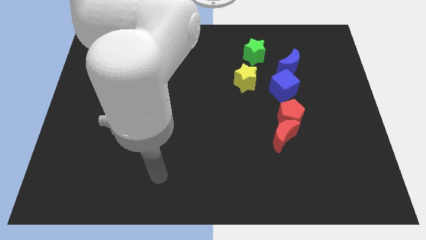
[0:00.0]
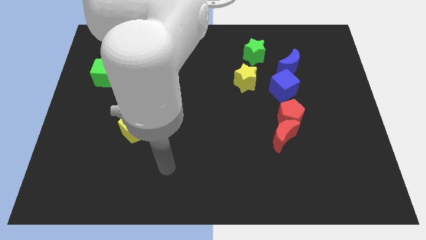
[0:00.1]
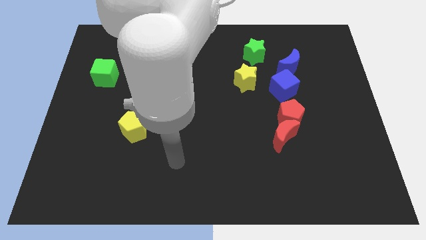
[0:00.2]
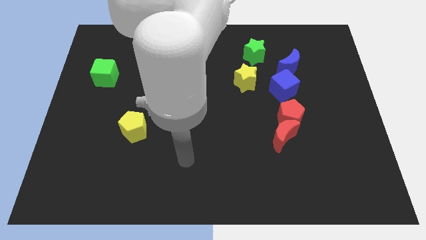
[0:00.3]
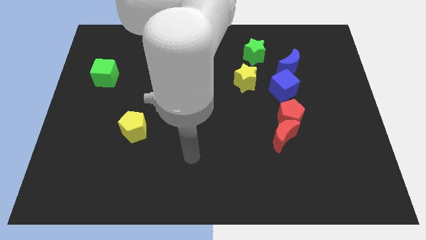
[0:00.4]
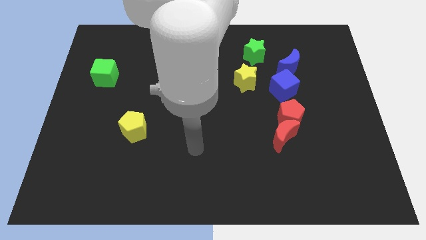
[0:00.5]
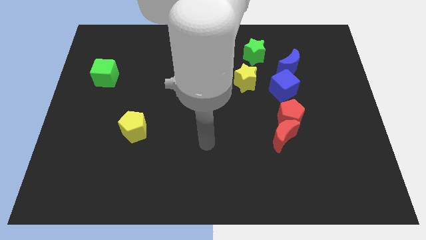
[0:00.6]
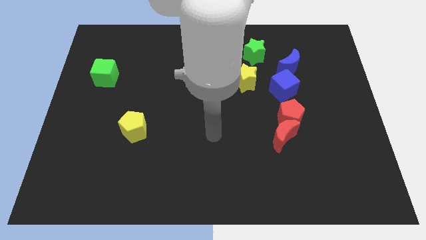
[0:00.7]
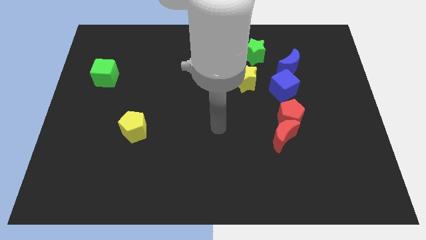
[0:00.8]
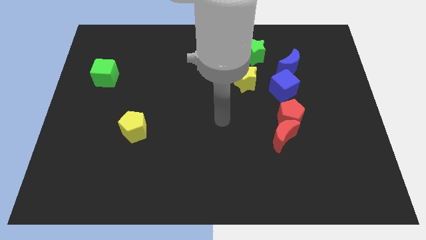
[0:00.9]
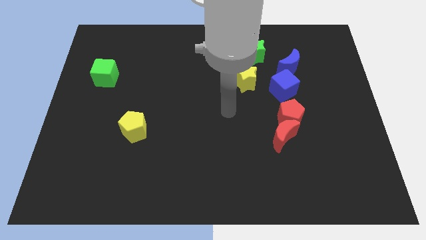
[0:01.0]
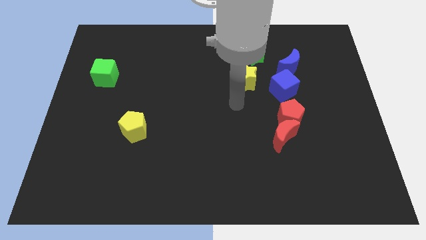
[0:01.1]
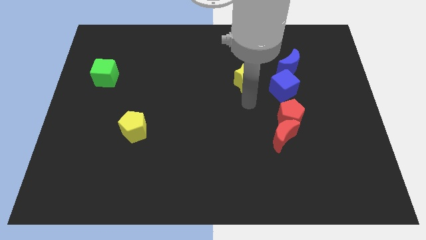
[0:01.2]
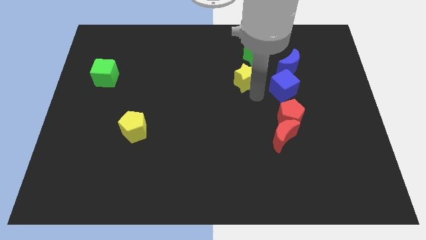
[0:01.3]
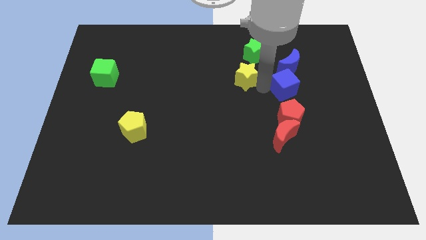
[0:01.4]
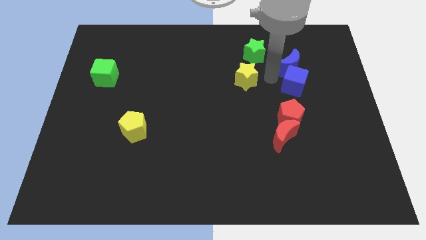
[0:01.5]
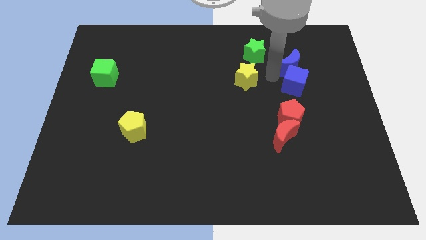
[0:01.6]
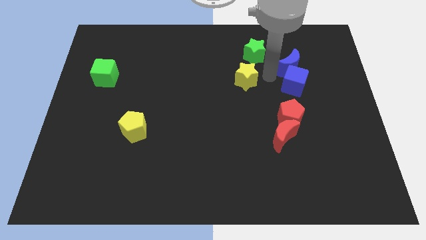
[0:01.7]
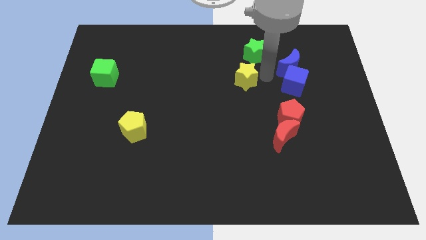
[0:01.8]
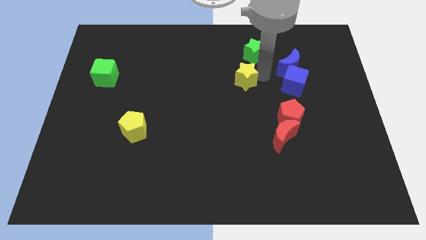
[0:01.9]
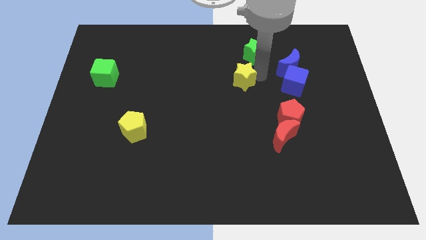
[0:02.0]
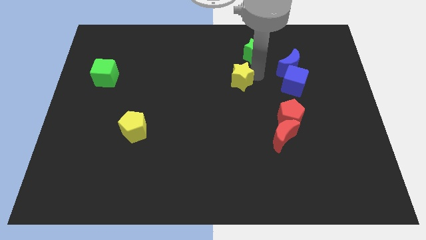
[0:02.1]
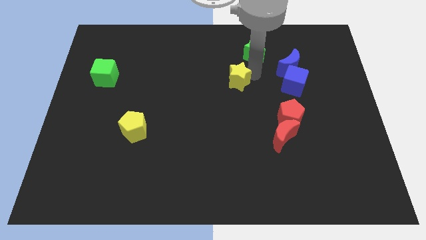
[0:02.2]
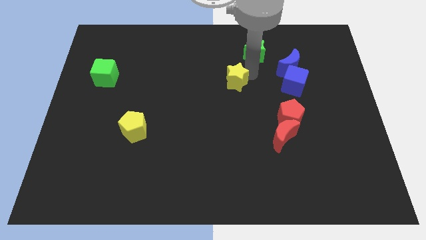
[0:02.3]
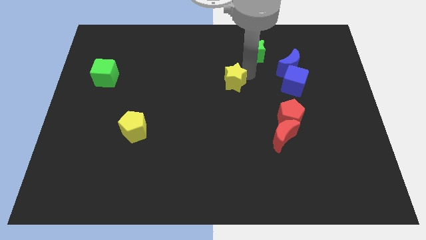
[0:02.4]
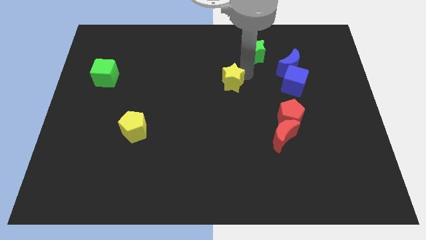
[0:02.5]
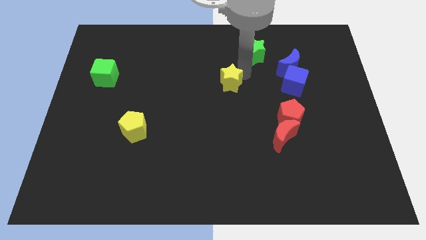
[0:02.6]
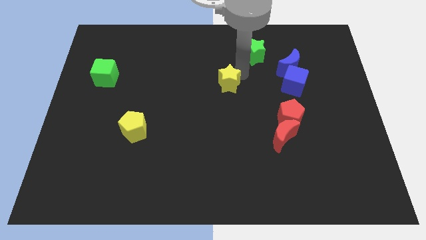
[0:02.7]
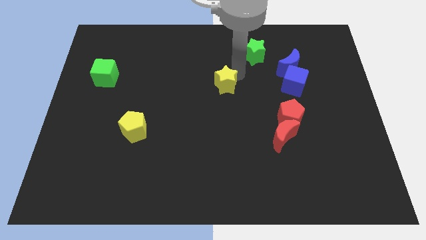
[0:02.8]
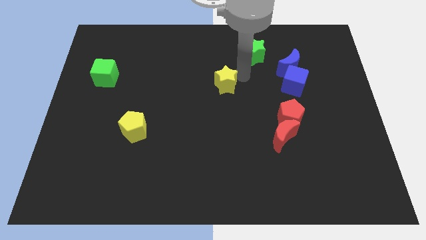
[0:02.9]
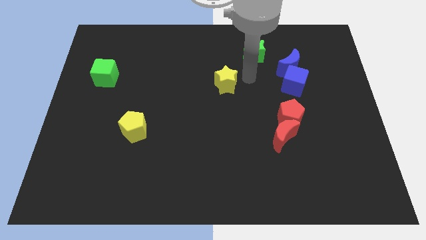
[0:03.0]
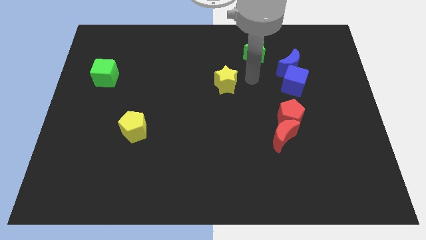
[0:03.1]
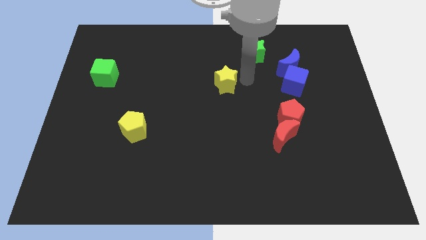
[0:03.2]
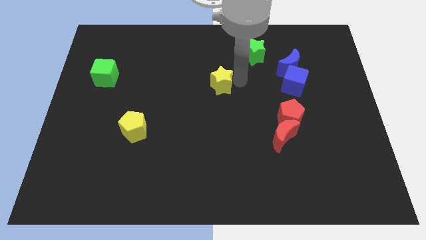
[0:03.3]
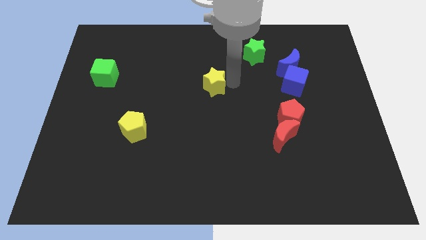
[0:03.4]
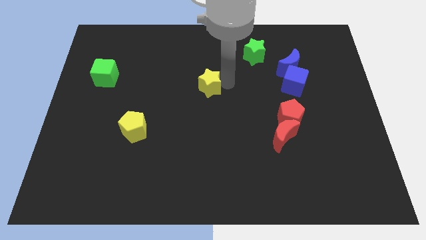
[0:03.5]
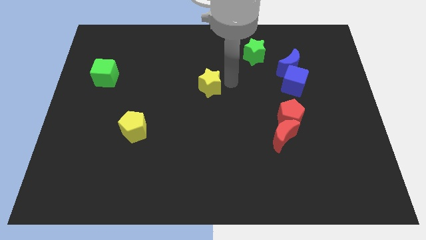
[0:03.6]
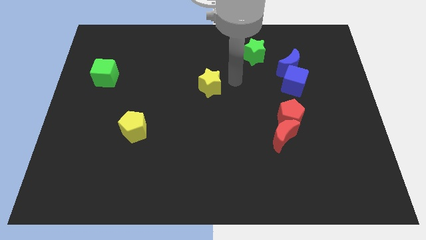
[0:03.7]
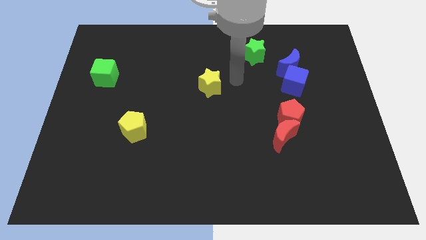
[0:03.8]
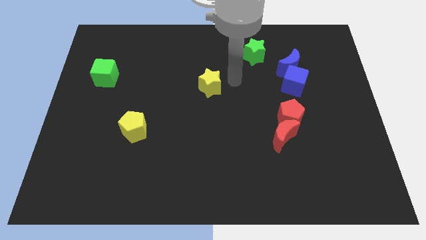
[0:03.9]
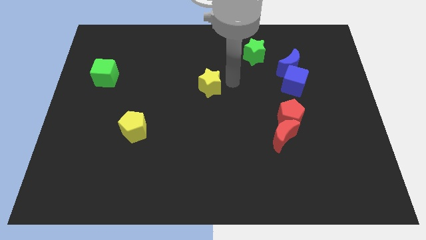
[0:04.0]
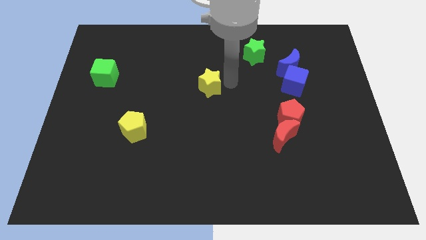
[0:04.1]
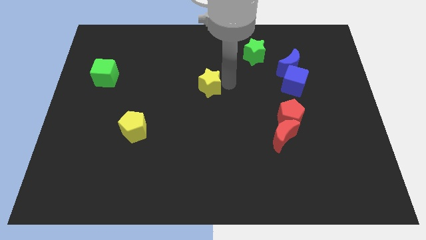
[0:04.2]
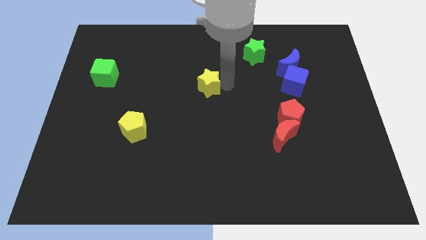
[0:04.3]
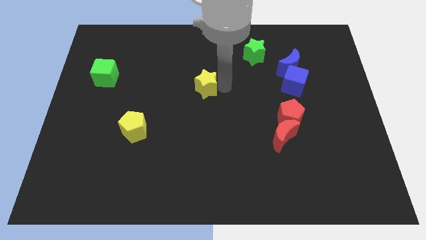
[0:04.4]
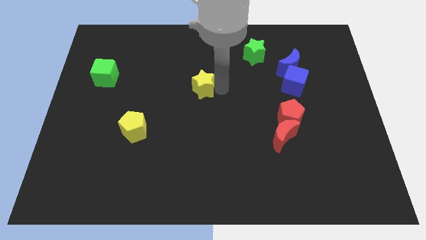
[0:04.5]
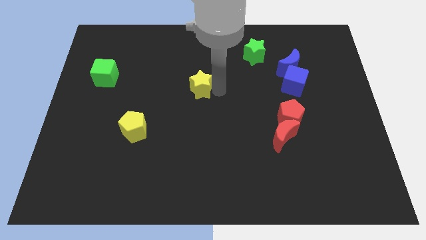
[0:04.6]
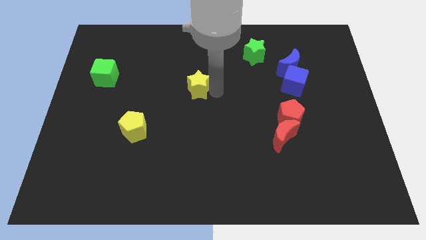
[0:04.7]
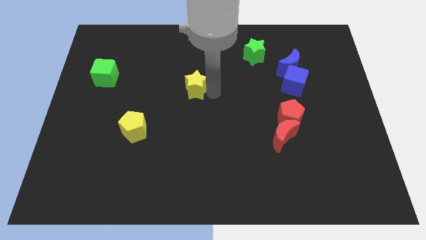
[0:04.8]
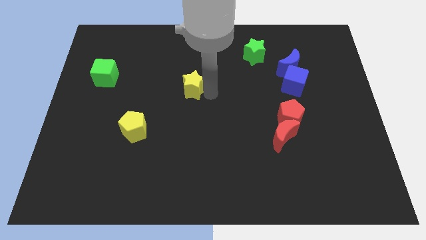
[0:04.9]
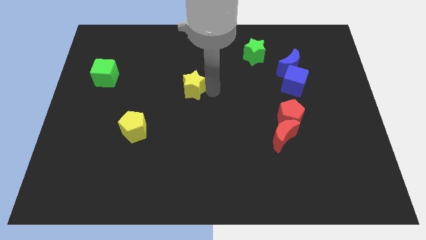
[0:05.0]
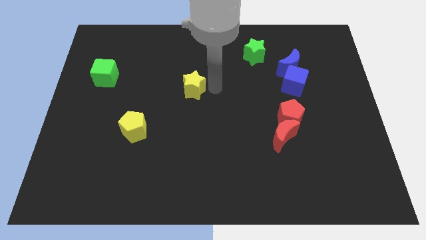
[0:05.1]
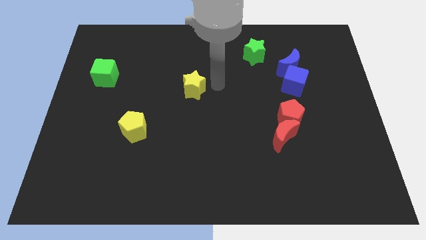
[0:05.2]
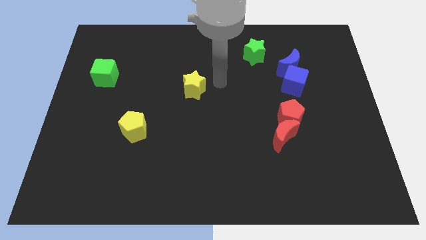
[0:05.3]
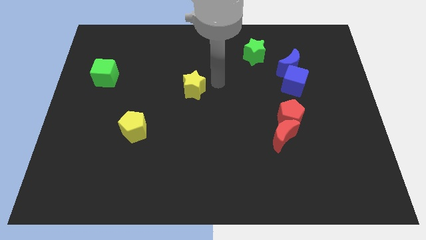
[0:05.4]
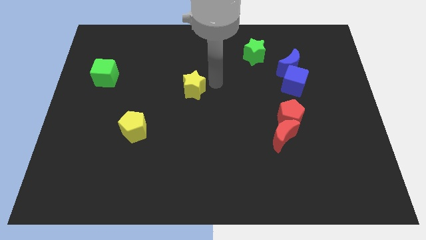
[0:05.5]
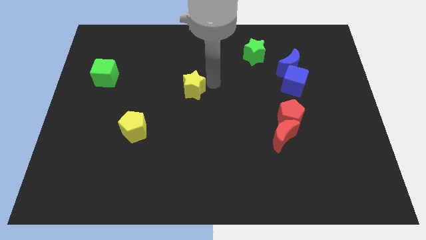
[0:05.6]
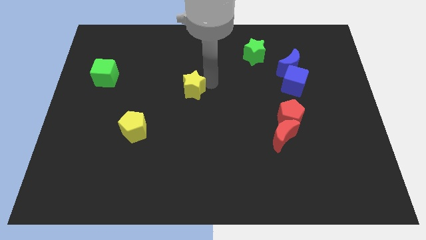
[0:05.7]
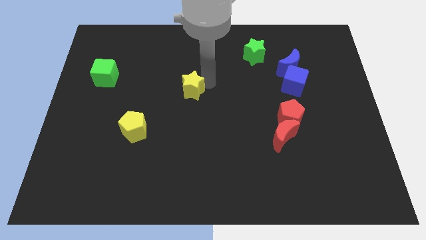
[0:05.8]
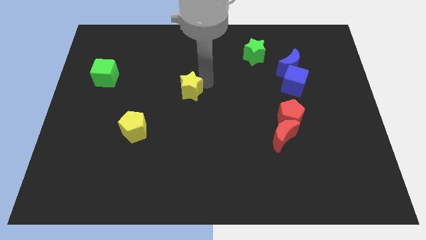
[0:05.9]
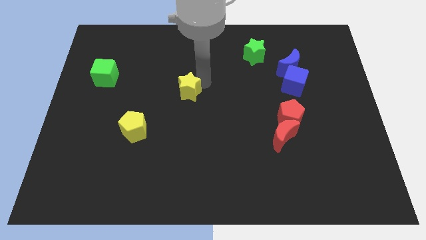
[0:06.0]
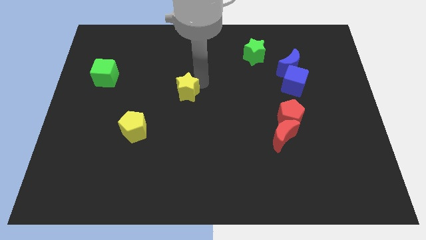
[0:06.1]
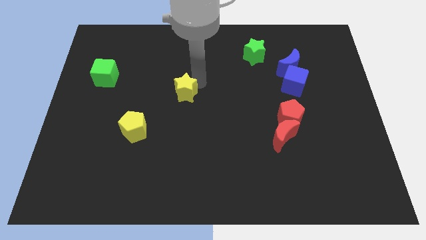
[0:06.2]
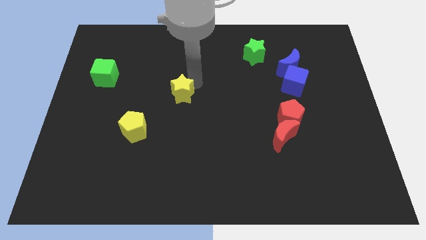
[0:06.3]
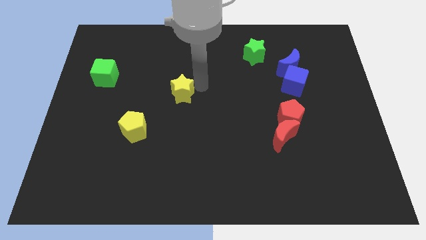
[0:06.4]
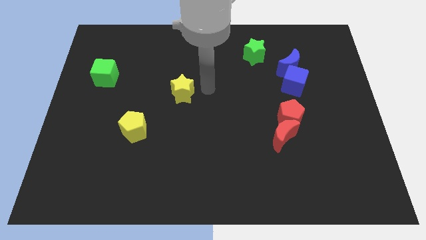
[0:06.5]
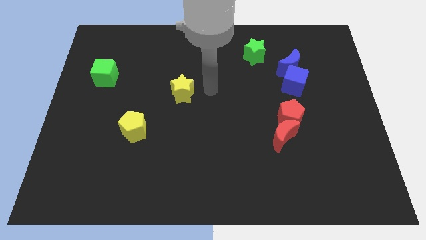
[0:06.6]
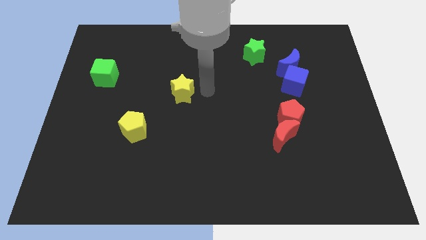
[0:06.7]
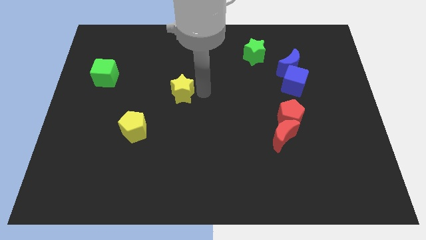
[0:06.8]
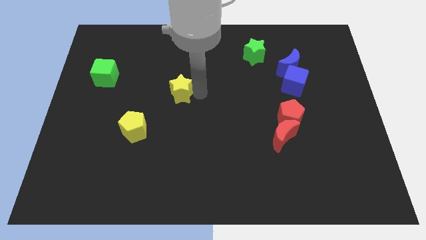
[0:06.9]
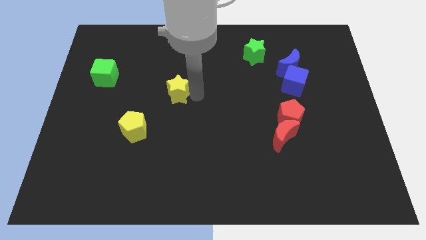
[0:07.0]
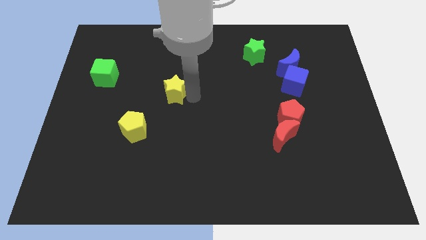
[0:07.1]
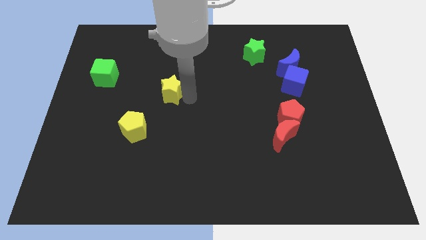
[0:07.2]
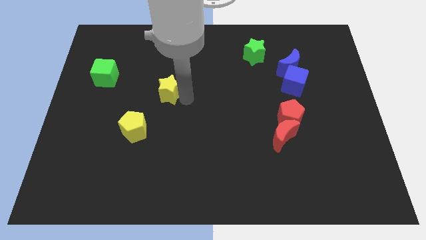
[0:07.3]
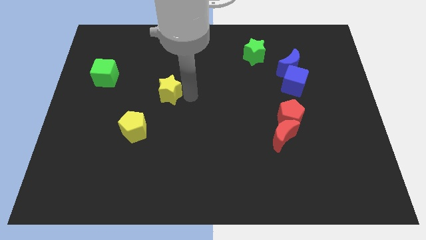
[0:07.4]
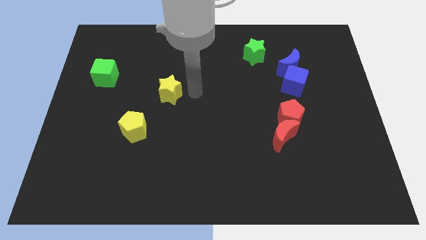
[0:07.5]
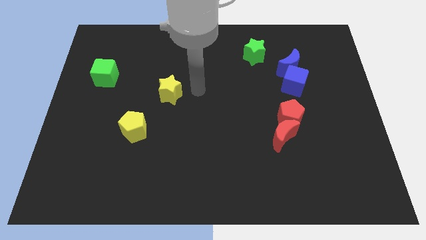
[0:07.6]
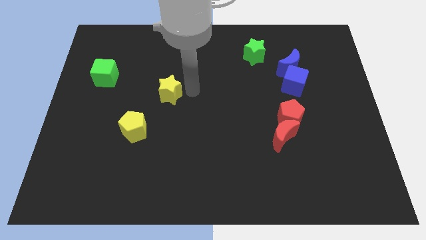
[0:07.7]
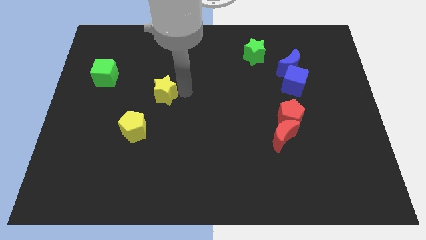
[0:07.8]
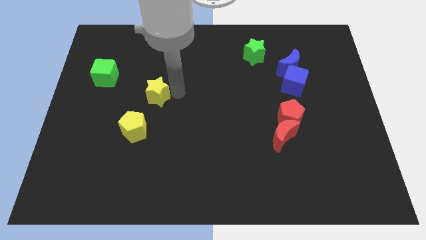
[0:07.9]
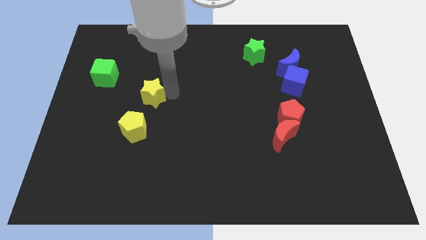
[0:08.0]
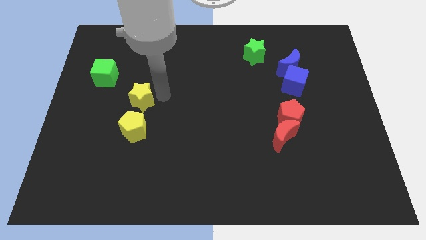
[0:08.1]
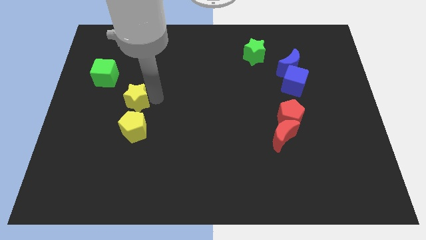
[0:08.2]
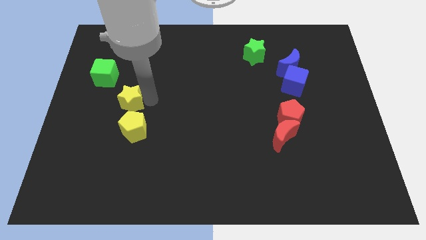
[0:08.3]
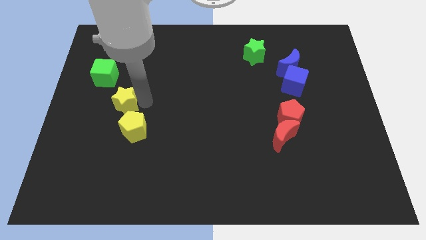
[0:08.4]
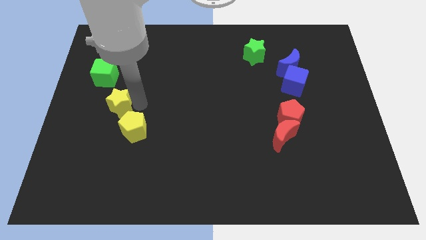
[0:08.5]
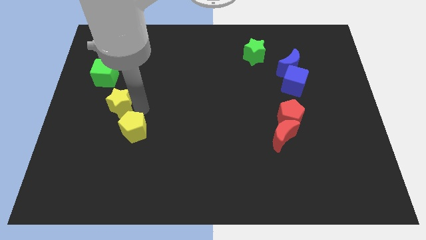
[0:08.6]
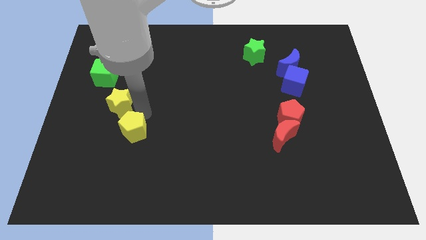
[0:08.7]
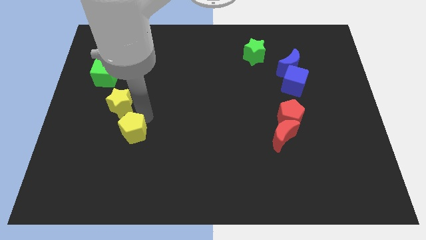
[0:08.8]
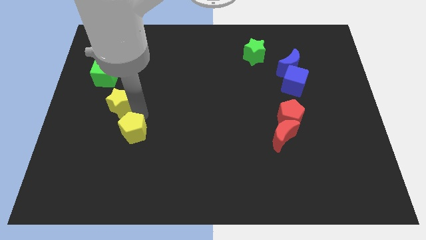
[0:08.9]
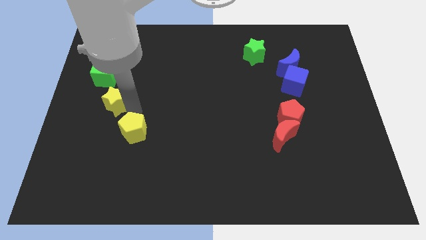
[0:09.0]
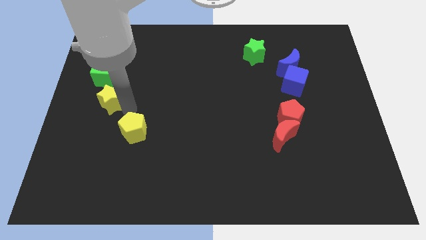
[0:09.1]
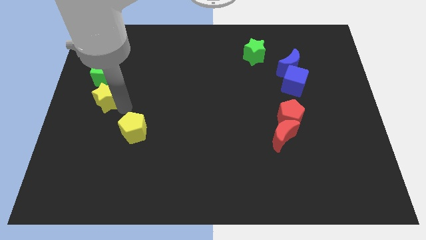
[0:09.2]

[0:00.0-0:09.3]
move the yellow star to the left side of the board
